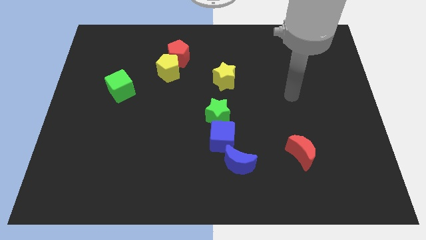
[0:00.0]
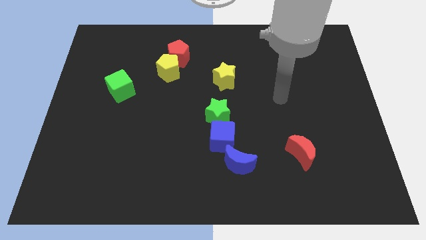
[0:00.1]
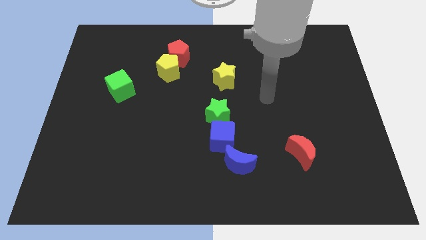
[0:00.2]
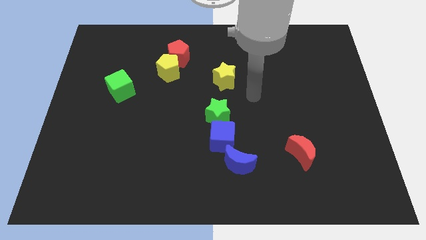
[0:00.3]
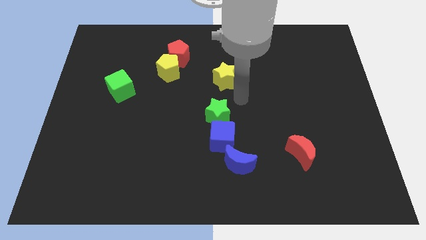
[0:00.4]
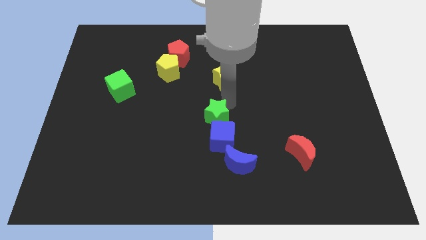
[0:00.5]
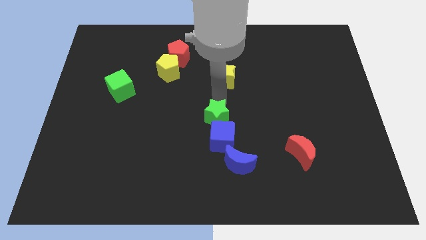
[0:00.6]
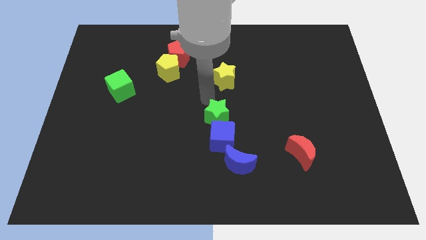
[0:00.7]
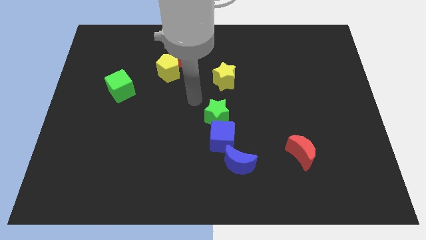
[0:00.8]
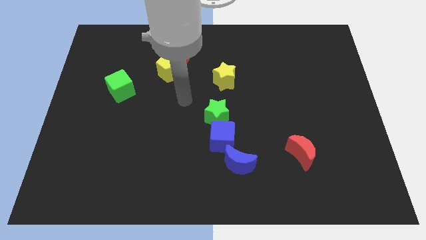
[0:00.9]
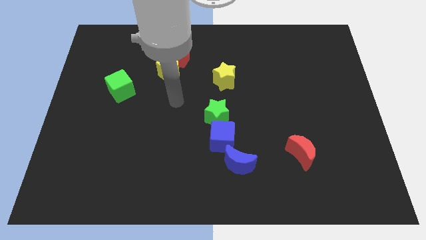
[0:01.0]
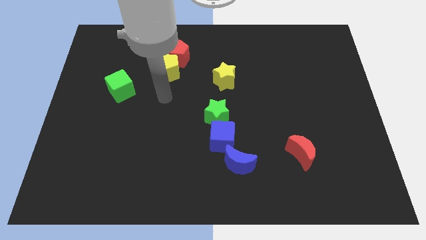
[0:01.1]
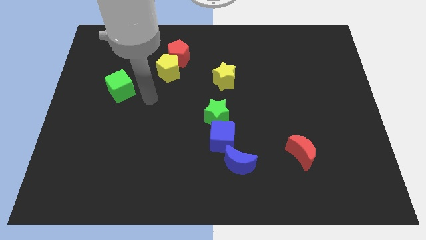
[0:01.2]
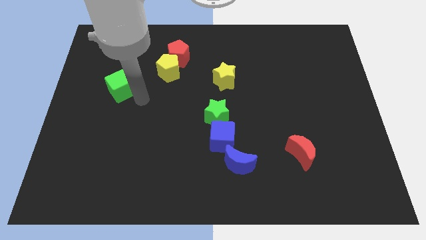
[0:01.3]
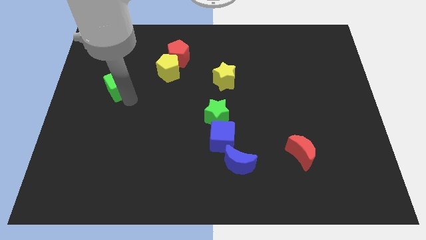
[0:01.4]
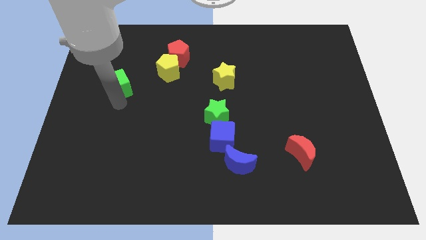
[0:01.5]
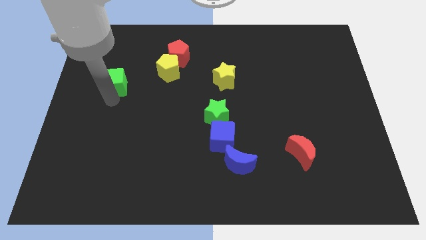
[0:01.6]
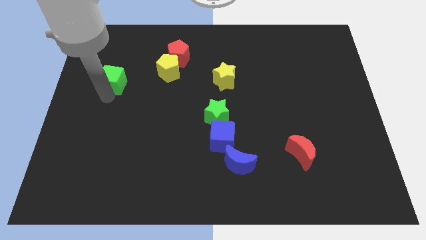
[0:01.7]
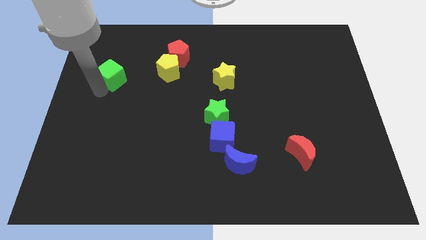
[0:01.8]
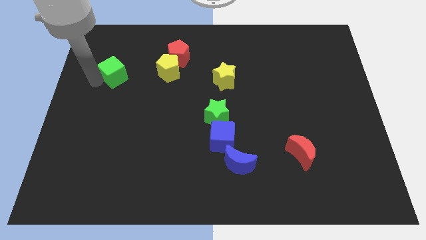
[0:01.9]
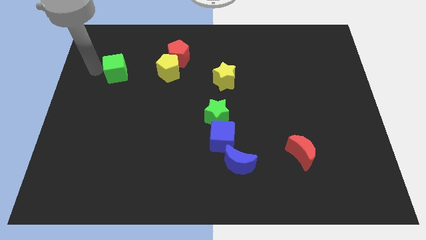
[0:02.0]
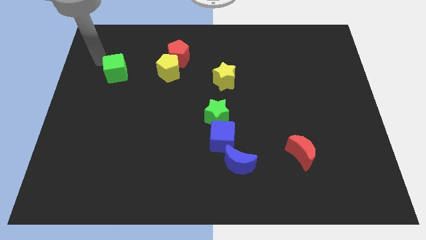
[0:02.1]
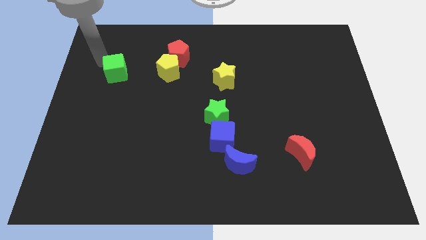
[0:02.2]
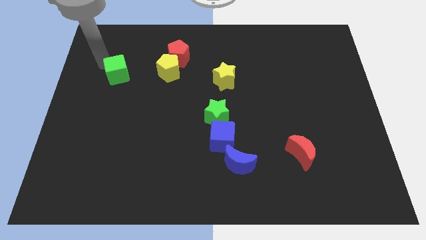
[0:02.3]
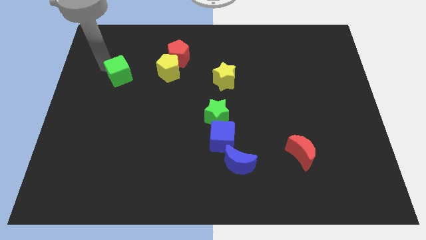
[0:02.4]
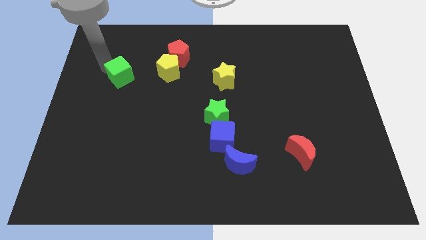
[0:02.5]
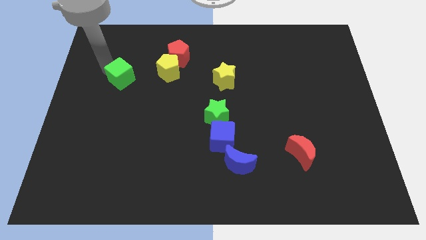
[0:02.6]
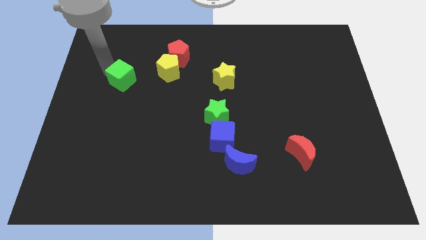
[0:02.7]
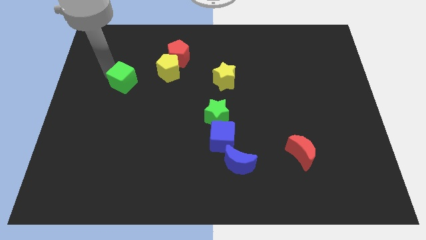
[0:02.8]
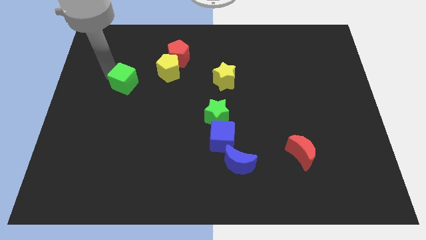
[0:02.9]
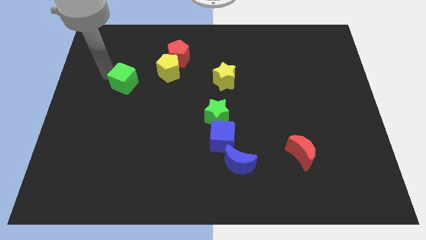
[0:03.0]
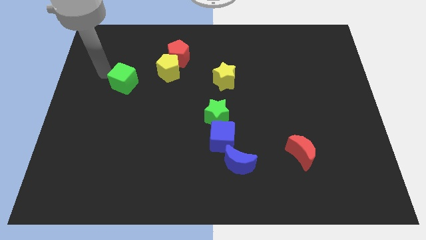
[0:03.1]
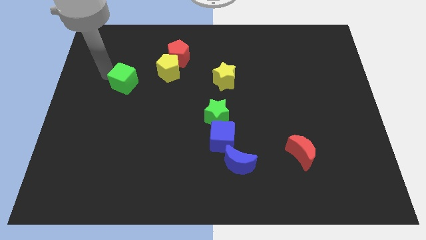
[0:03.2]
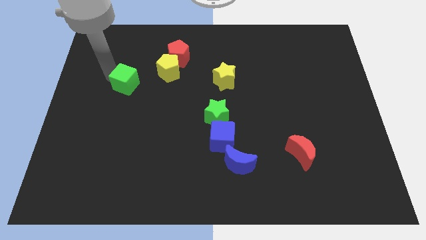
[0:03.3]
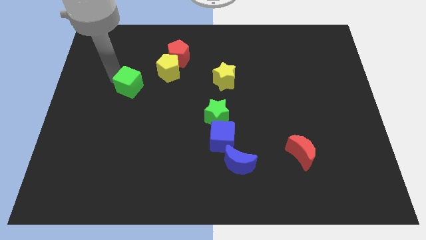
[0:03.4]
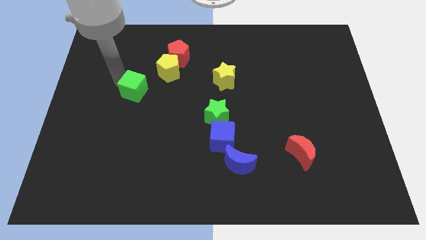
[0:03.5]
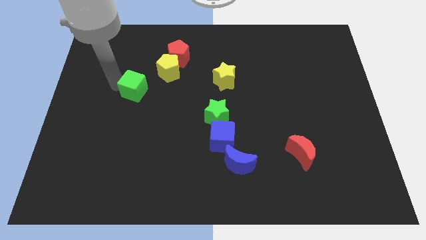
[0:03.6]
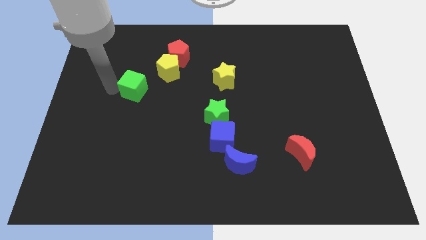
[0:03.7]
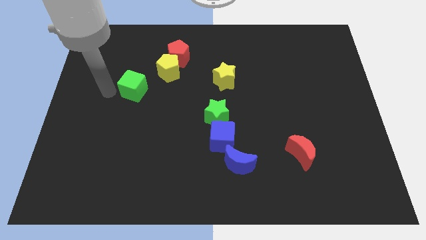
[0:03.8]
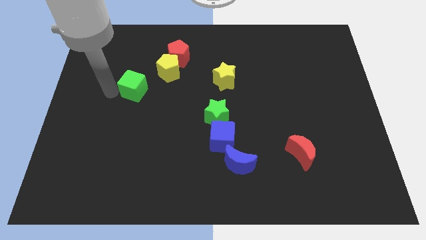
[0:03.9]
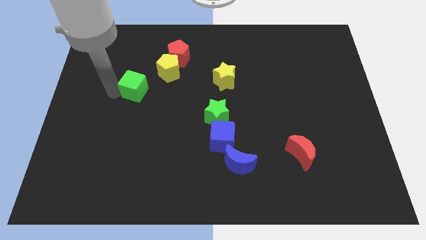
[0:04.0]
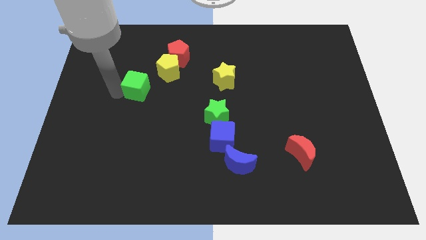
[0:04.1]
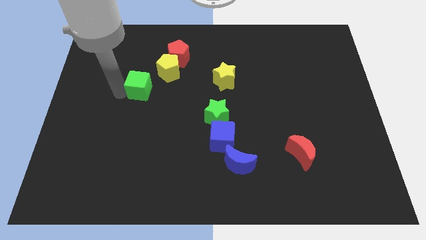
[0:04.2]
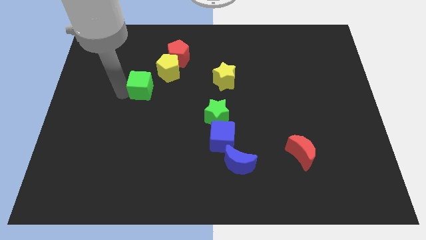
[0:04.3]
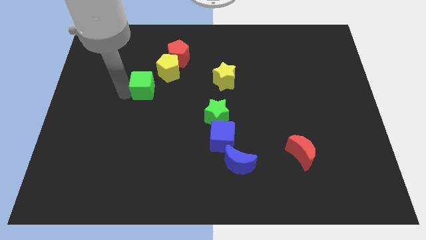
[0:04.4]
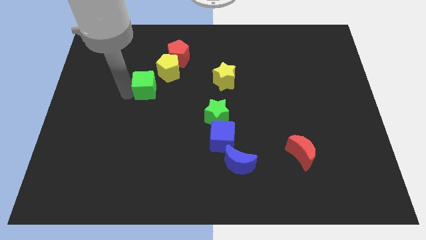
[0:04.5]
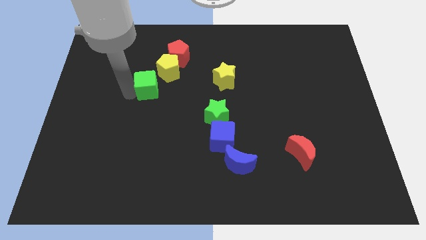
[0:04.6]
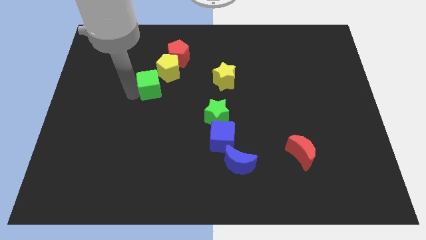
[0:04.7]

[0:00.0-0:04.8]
slide the green cube to the right a bit

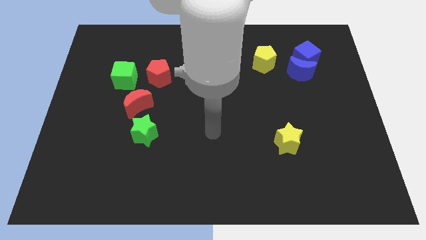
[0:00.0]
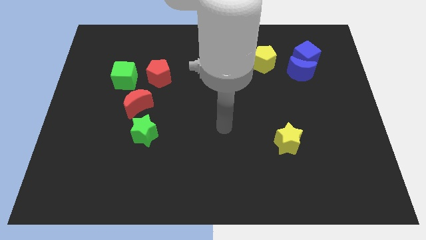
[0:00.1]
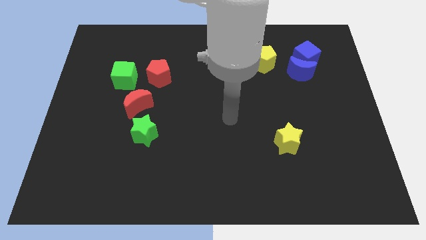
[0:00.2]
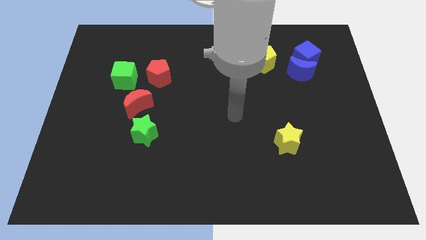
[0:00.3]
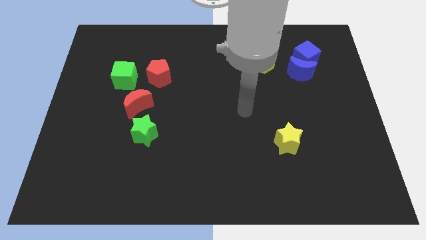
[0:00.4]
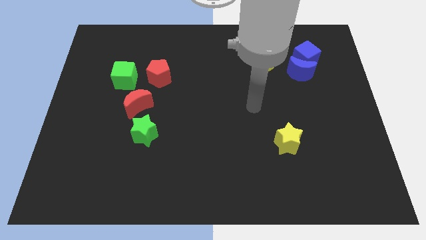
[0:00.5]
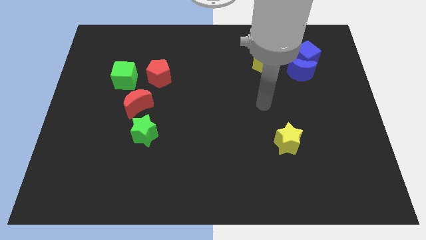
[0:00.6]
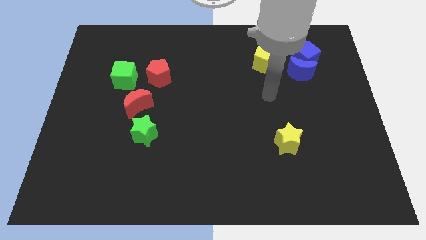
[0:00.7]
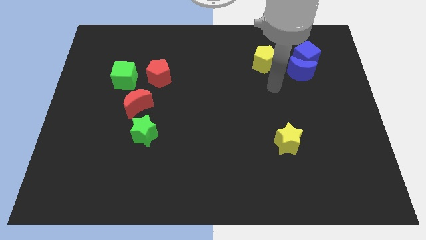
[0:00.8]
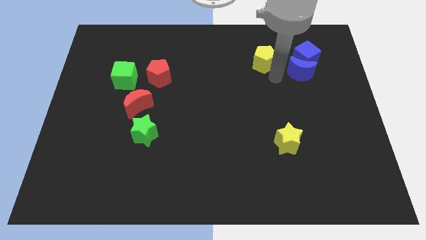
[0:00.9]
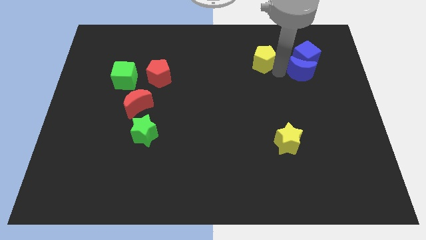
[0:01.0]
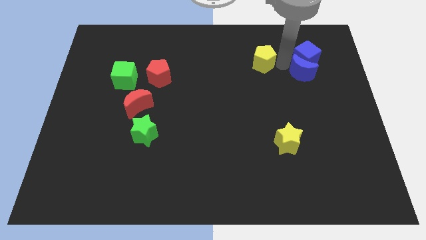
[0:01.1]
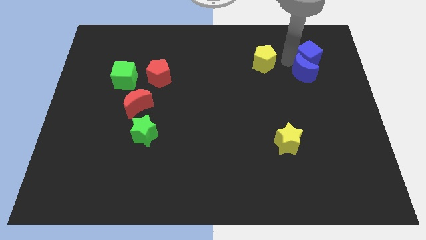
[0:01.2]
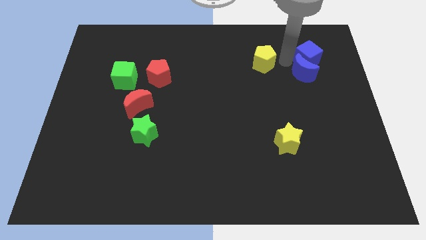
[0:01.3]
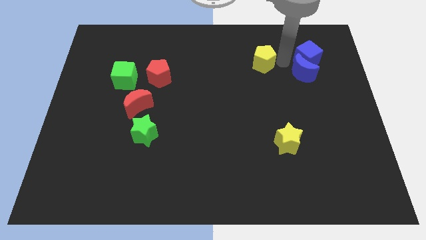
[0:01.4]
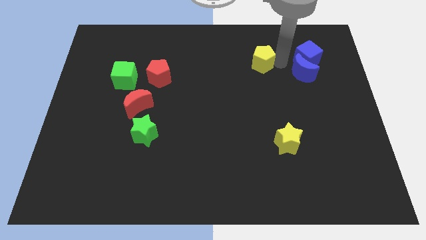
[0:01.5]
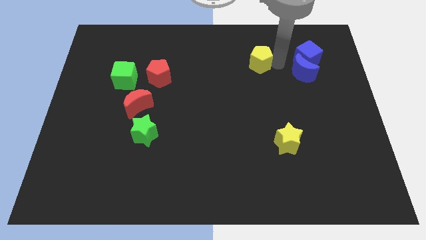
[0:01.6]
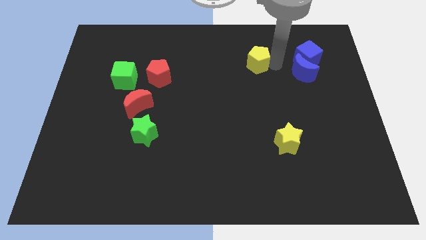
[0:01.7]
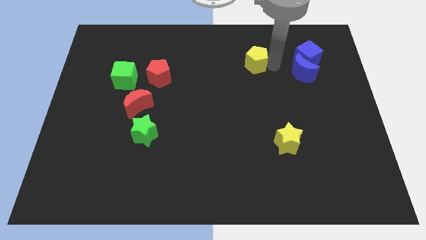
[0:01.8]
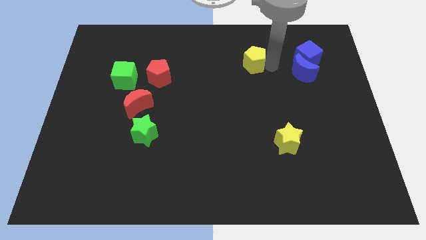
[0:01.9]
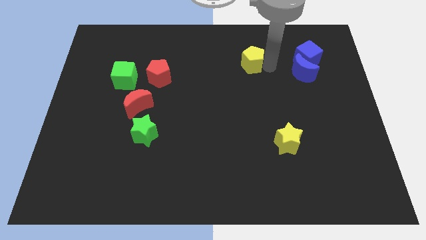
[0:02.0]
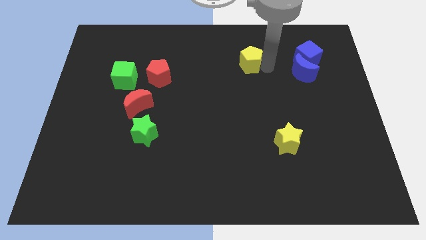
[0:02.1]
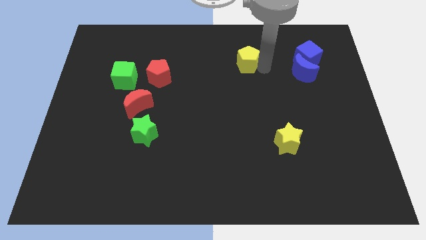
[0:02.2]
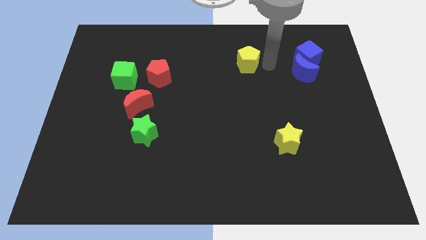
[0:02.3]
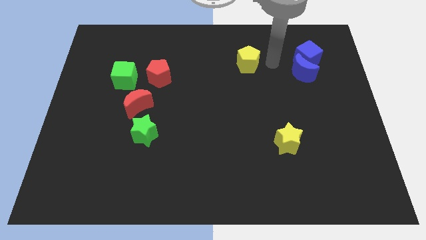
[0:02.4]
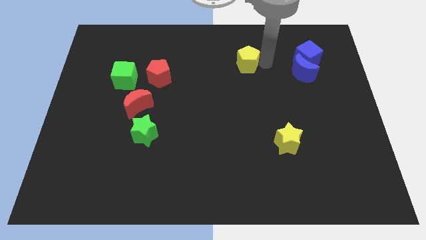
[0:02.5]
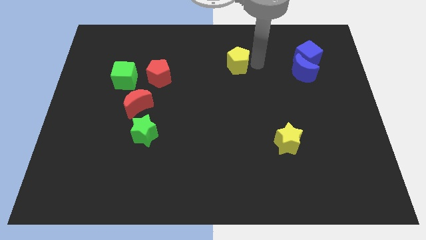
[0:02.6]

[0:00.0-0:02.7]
move the yellow pentagon a bit left

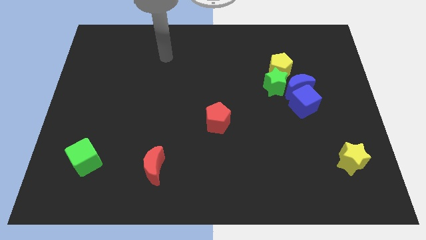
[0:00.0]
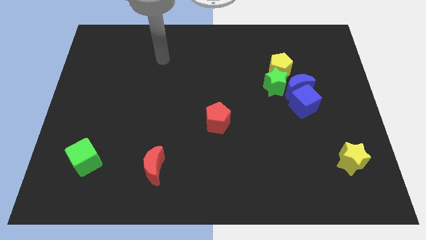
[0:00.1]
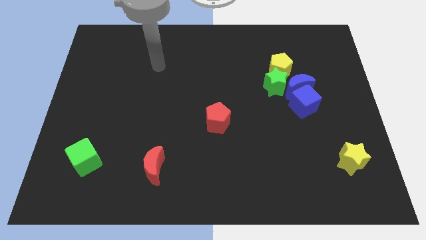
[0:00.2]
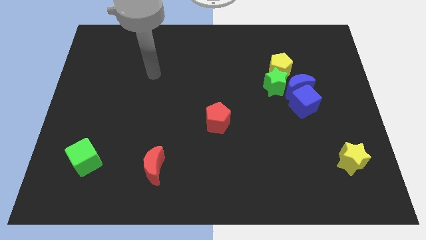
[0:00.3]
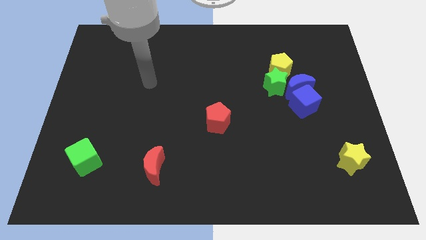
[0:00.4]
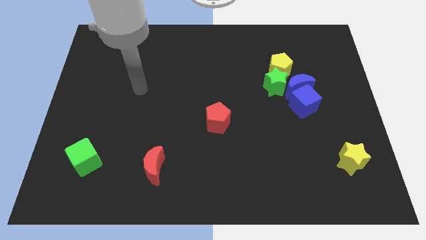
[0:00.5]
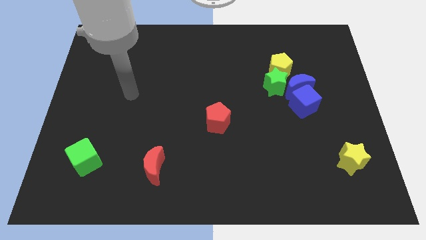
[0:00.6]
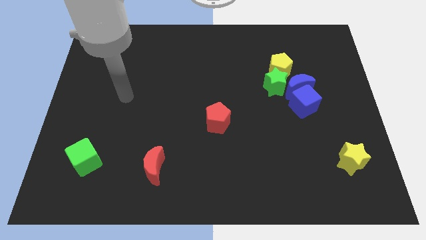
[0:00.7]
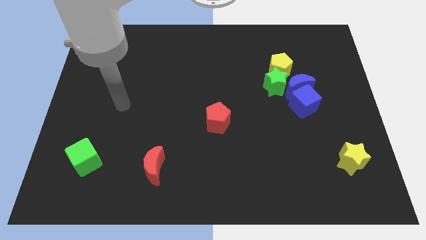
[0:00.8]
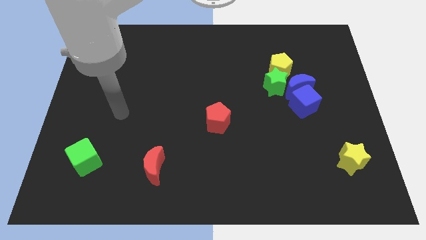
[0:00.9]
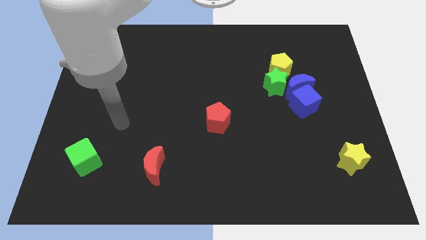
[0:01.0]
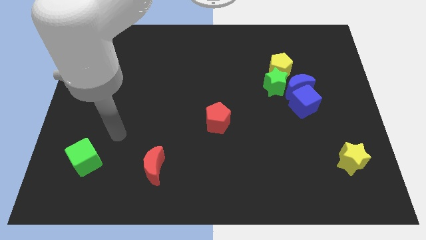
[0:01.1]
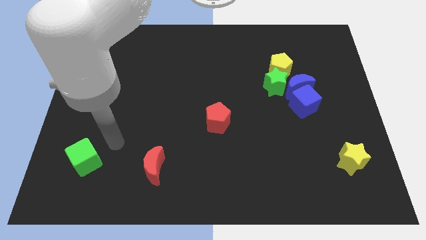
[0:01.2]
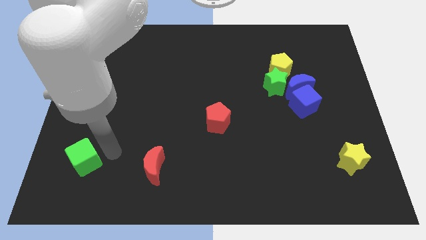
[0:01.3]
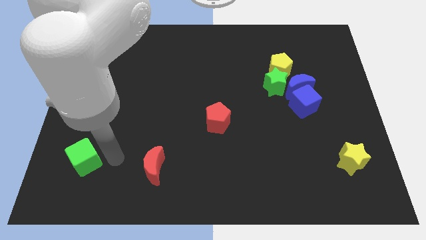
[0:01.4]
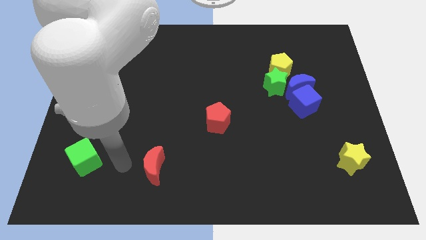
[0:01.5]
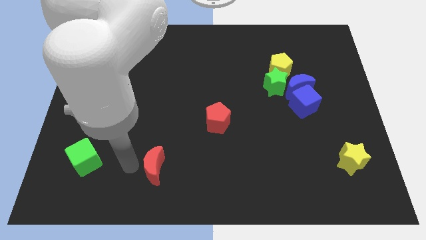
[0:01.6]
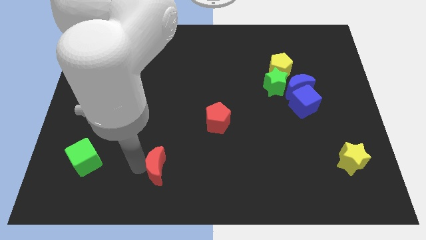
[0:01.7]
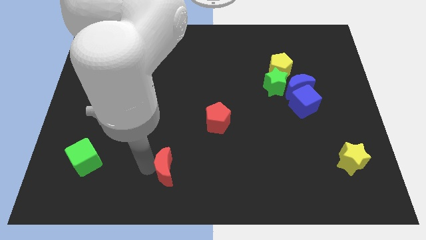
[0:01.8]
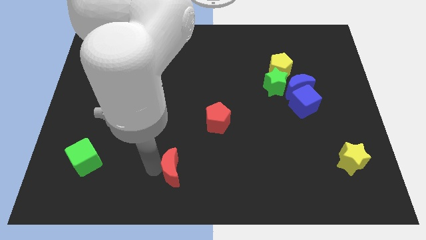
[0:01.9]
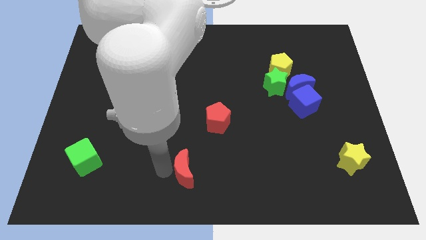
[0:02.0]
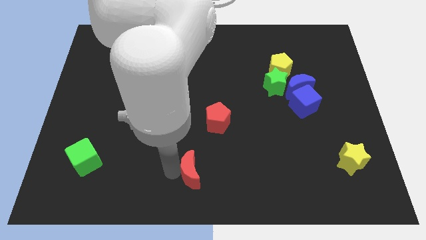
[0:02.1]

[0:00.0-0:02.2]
push the red moon to the right slightly
